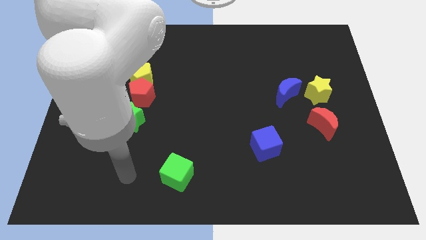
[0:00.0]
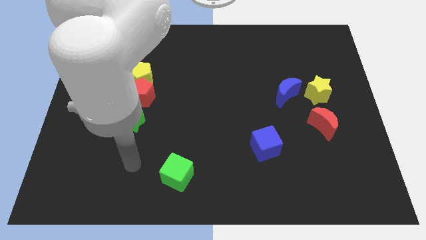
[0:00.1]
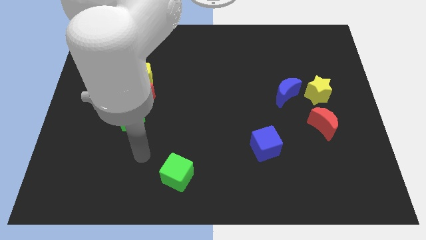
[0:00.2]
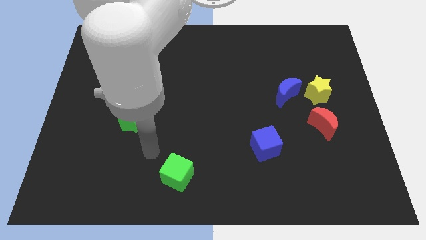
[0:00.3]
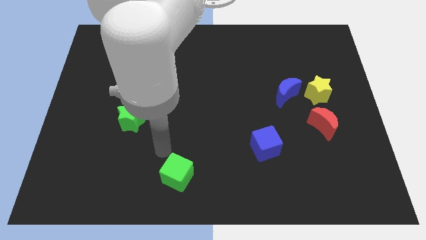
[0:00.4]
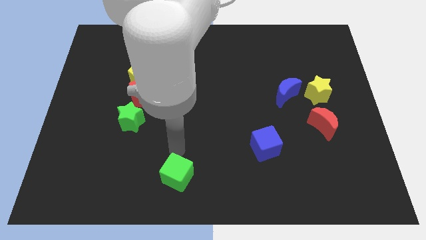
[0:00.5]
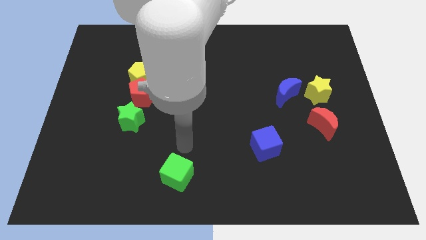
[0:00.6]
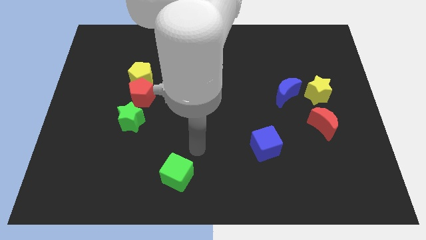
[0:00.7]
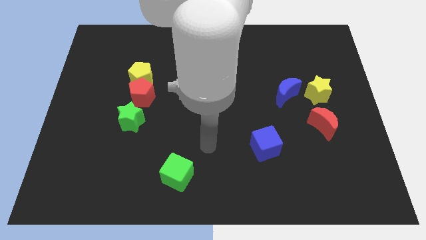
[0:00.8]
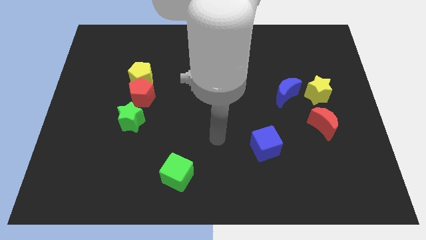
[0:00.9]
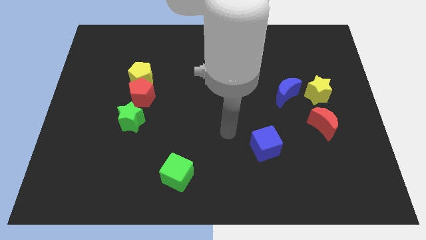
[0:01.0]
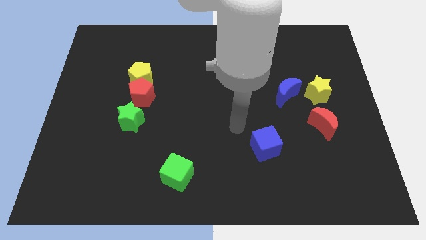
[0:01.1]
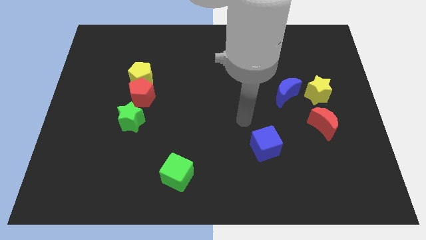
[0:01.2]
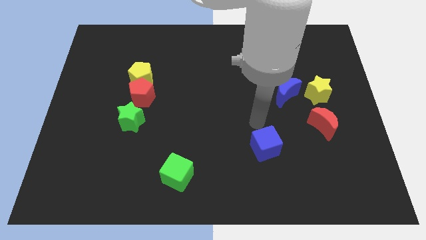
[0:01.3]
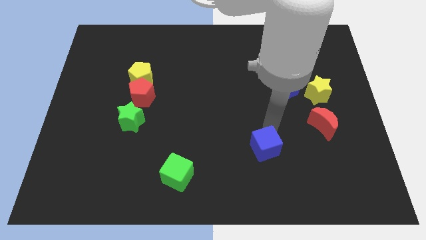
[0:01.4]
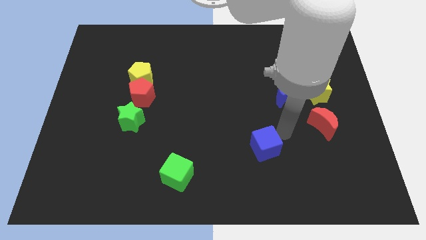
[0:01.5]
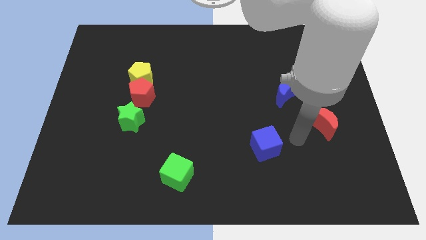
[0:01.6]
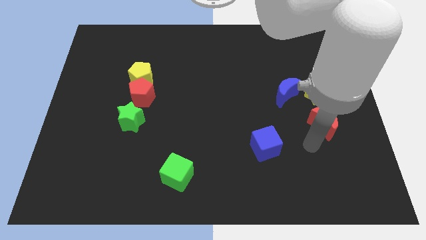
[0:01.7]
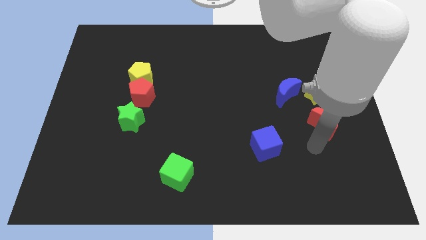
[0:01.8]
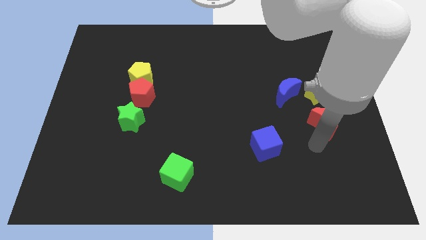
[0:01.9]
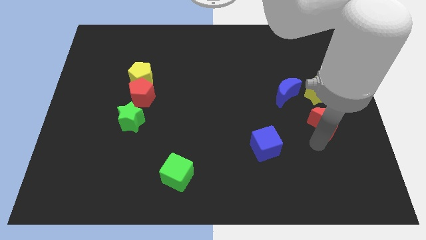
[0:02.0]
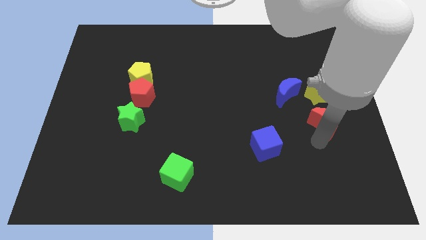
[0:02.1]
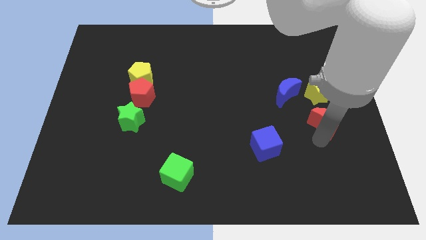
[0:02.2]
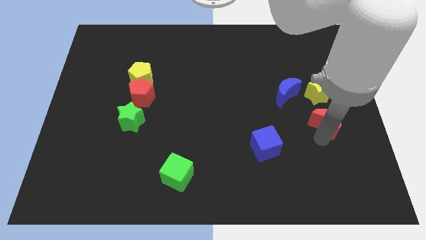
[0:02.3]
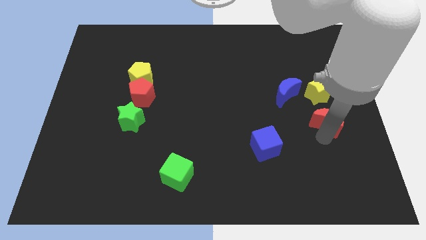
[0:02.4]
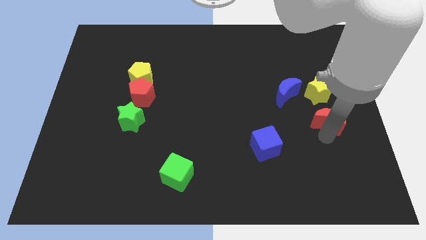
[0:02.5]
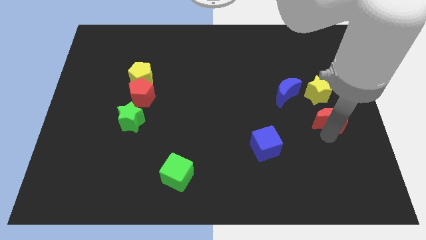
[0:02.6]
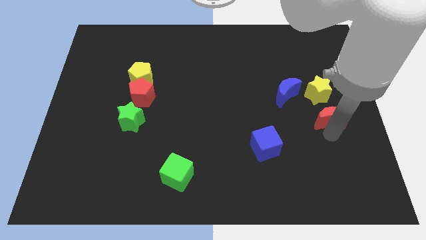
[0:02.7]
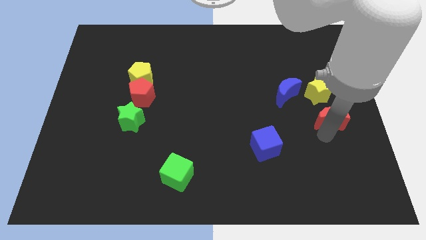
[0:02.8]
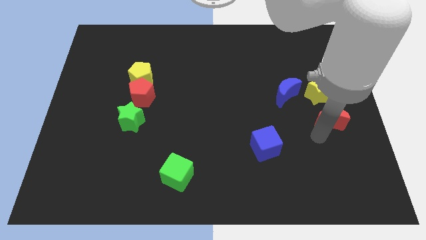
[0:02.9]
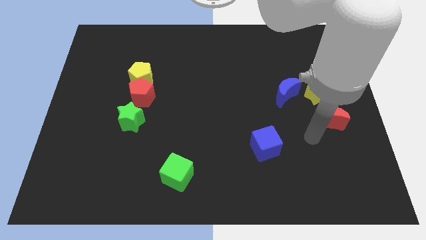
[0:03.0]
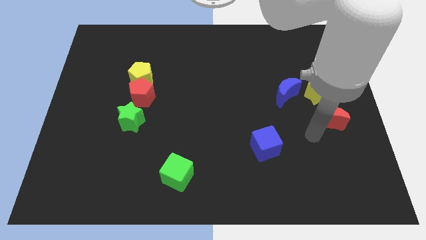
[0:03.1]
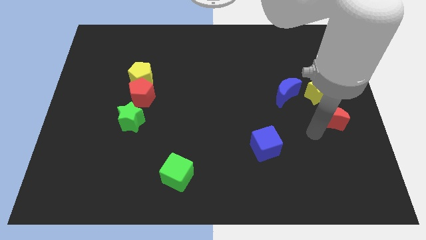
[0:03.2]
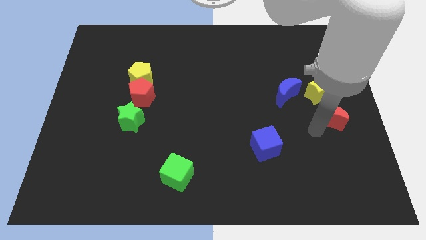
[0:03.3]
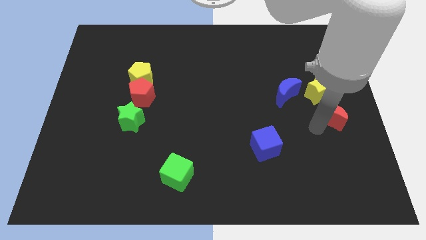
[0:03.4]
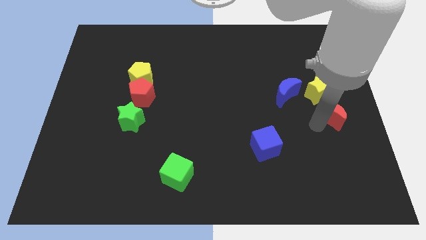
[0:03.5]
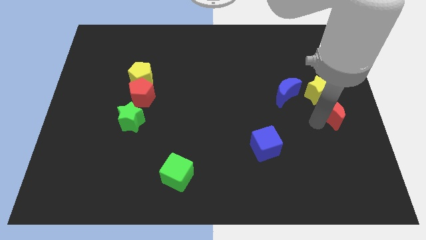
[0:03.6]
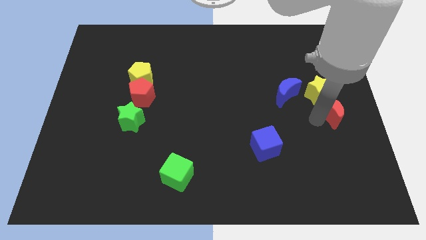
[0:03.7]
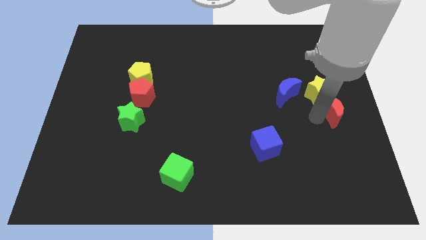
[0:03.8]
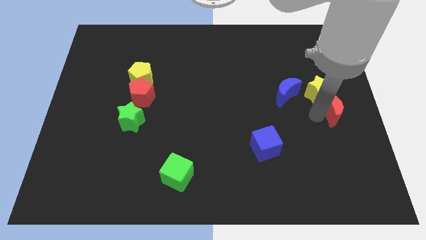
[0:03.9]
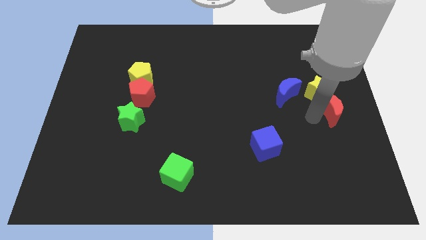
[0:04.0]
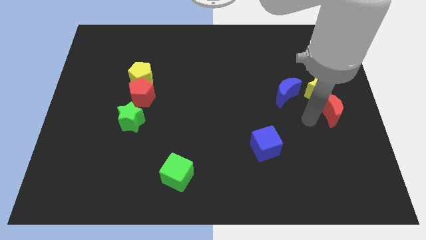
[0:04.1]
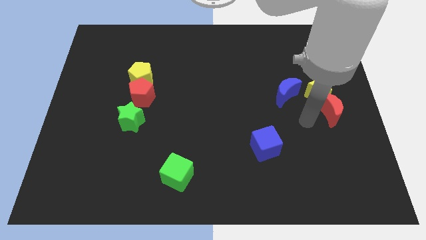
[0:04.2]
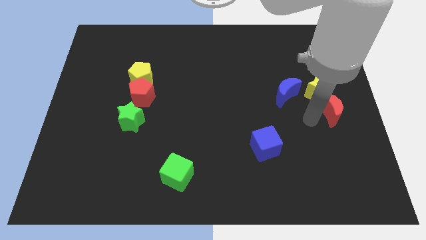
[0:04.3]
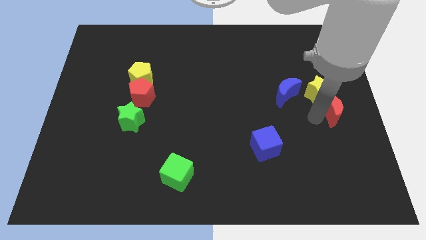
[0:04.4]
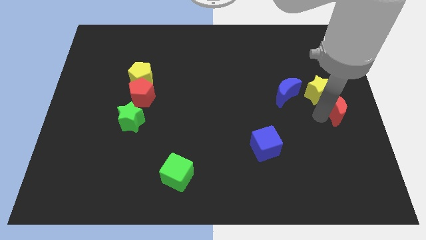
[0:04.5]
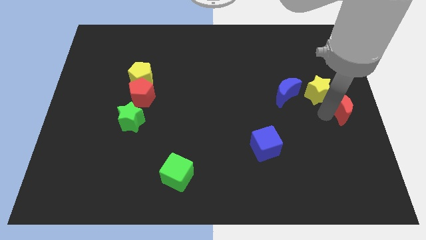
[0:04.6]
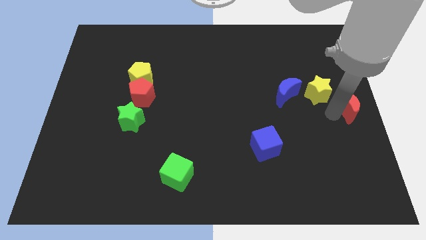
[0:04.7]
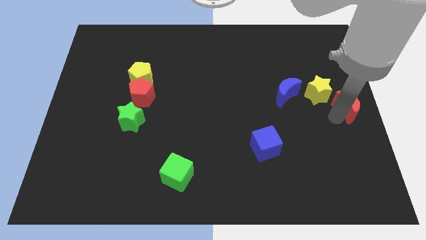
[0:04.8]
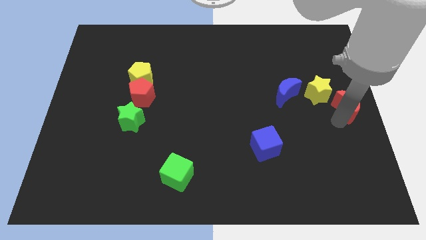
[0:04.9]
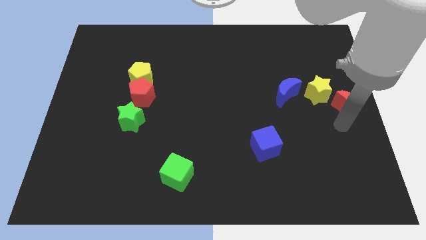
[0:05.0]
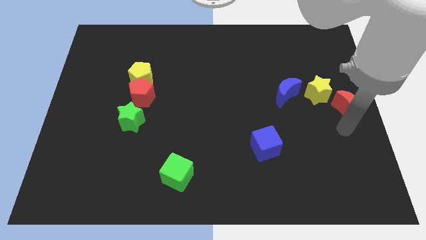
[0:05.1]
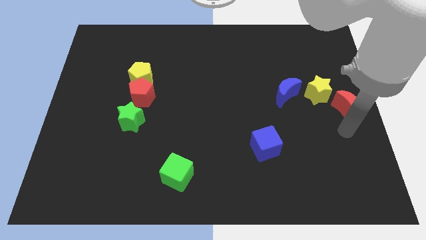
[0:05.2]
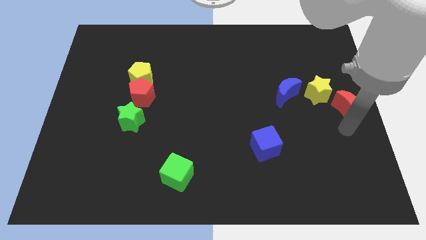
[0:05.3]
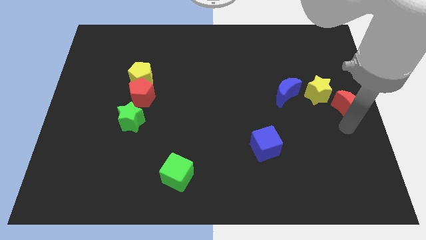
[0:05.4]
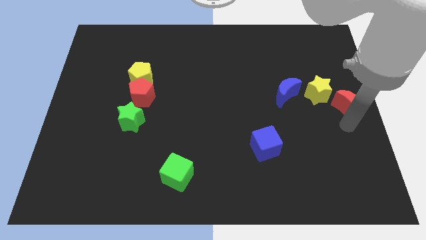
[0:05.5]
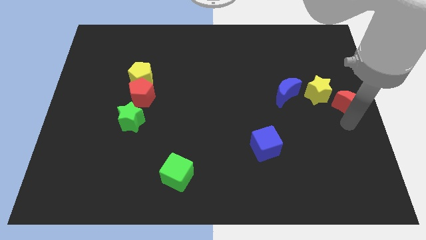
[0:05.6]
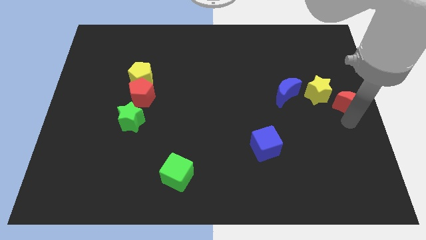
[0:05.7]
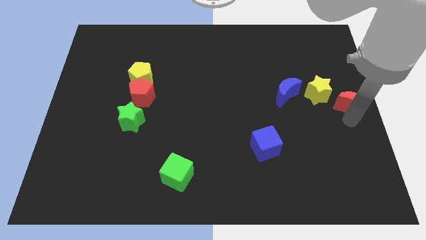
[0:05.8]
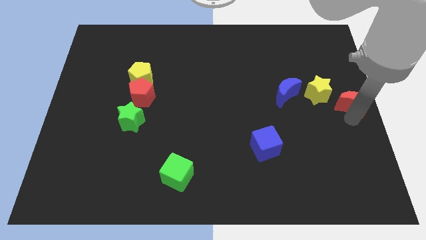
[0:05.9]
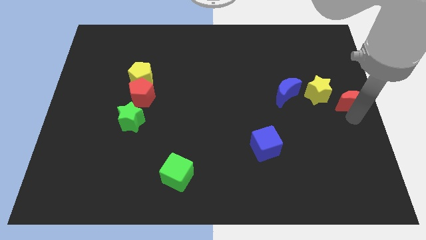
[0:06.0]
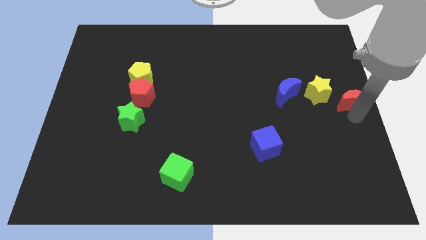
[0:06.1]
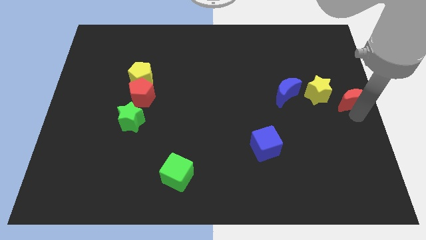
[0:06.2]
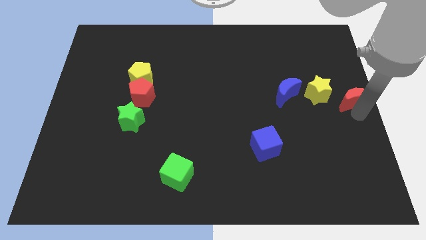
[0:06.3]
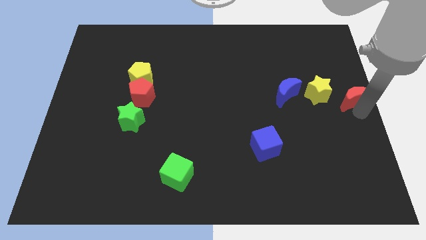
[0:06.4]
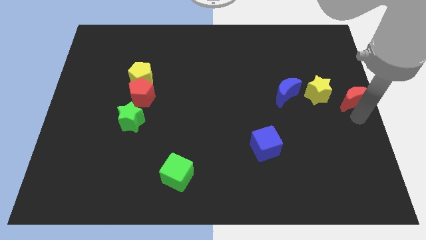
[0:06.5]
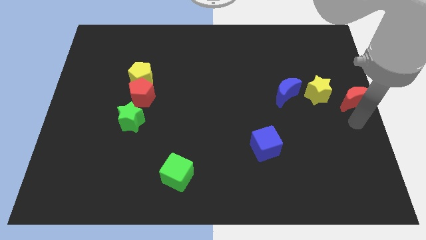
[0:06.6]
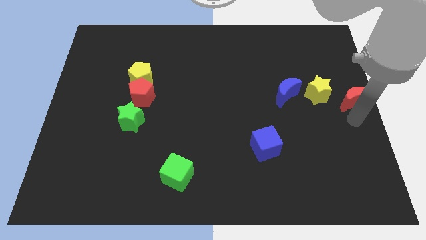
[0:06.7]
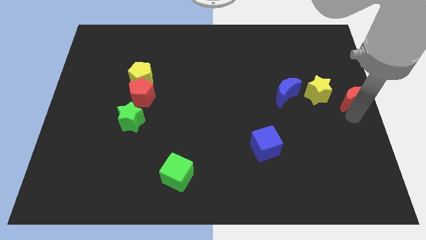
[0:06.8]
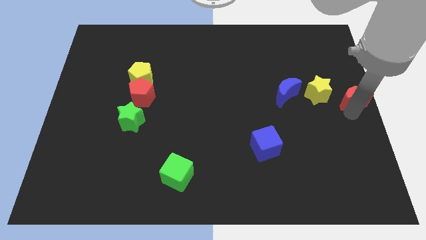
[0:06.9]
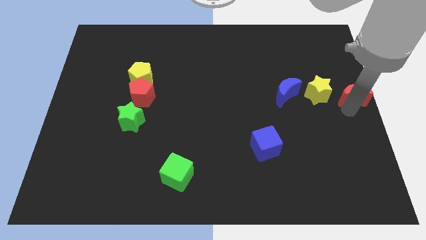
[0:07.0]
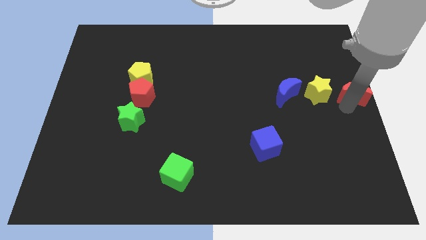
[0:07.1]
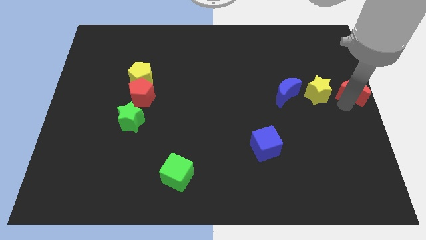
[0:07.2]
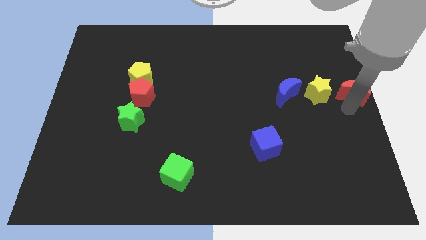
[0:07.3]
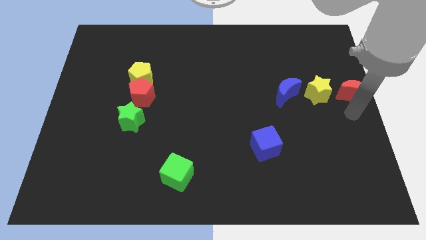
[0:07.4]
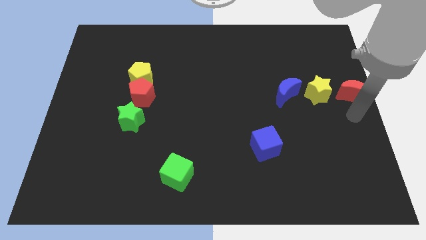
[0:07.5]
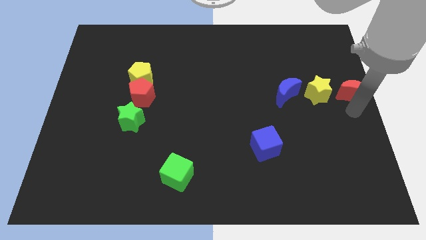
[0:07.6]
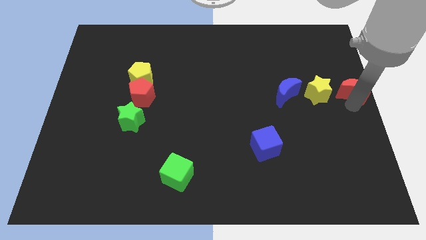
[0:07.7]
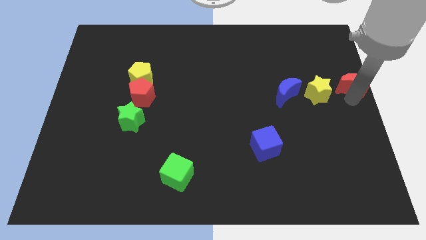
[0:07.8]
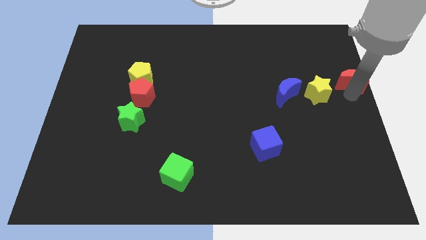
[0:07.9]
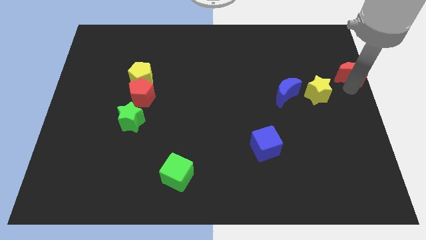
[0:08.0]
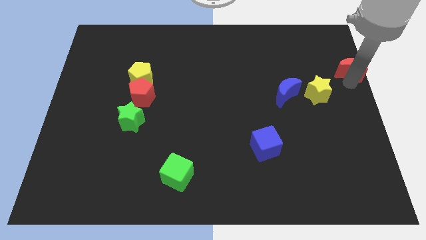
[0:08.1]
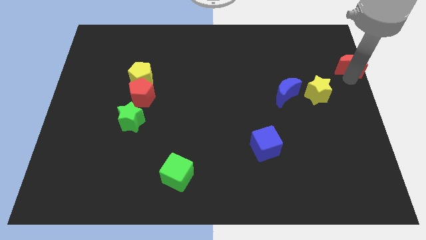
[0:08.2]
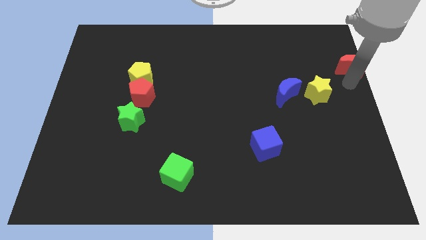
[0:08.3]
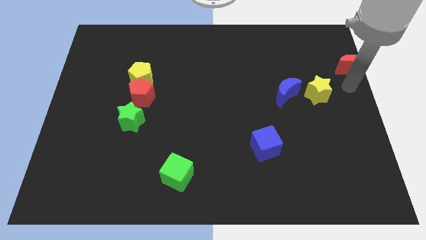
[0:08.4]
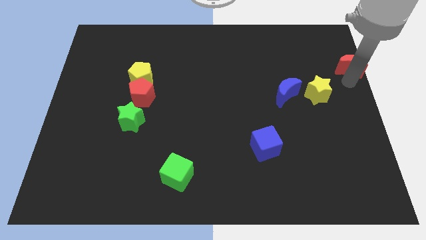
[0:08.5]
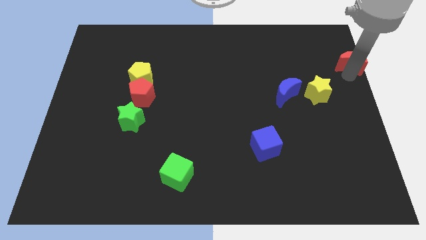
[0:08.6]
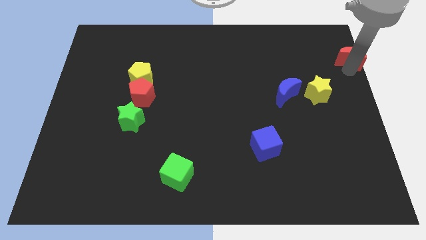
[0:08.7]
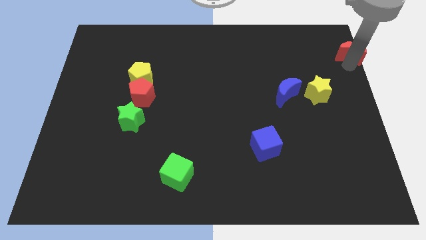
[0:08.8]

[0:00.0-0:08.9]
slide the red moon to the top right of the board
